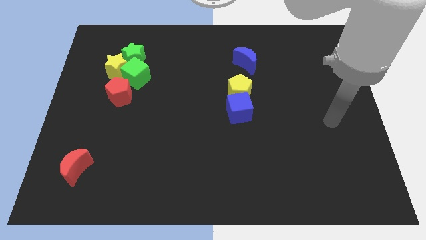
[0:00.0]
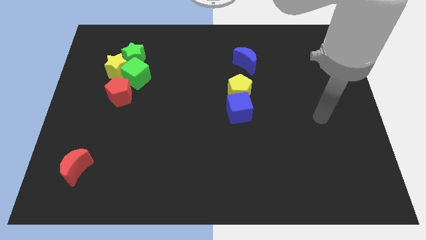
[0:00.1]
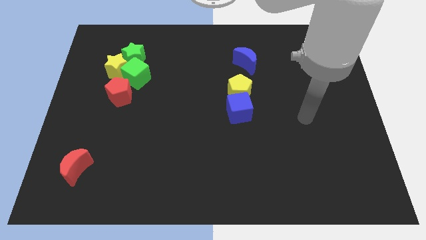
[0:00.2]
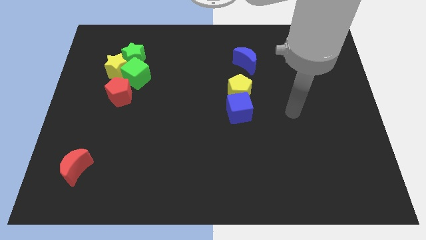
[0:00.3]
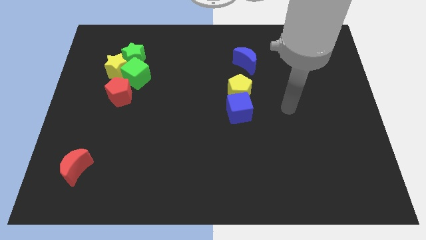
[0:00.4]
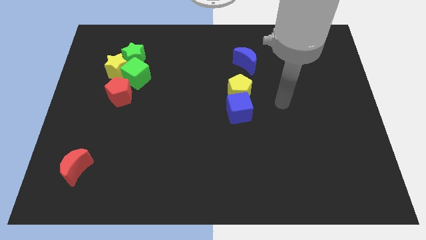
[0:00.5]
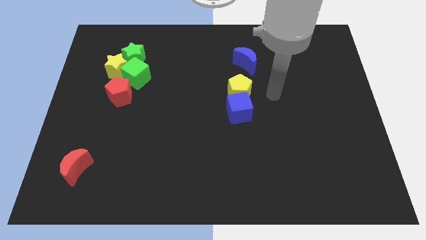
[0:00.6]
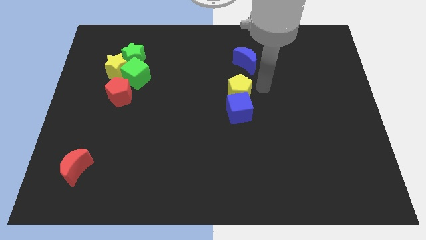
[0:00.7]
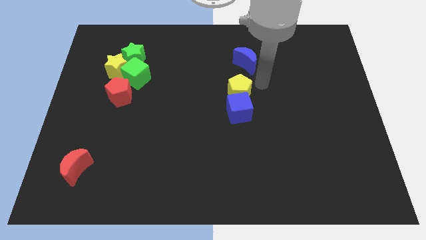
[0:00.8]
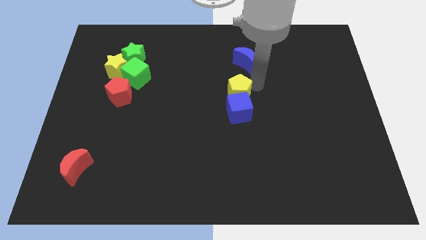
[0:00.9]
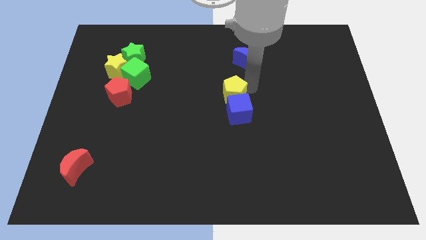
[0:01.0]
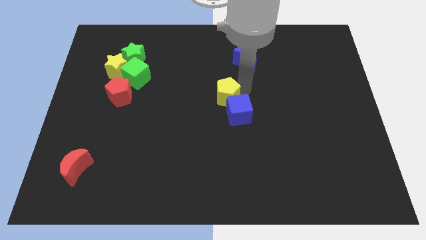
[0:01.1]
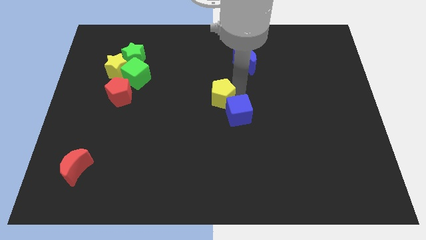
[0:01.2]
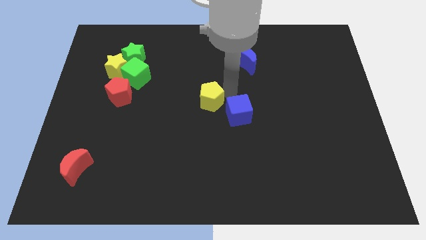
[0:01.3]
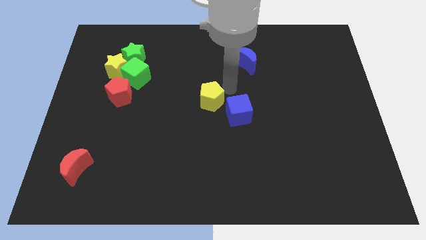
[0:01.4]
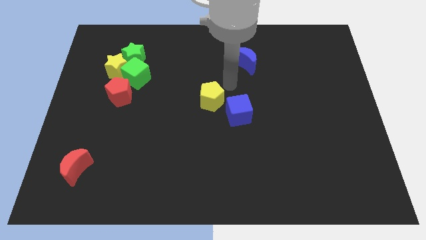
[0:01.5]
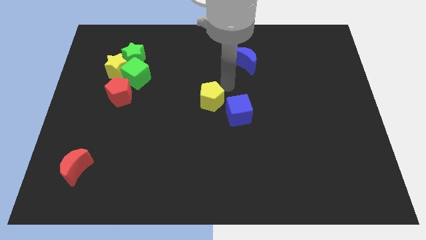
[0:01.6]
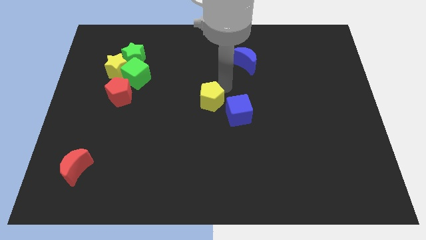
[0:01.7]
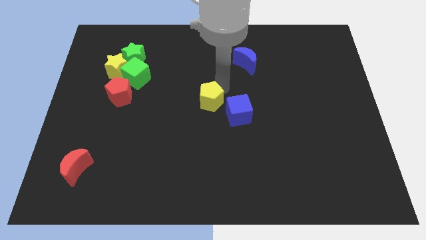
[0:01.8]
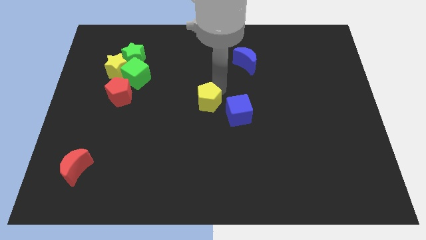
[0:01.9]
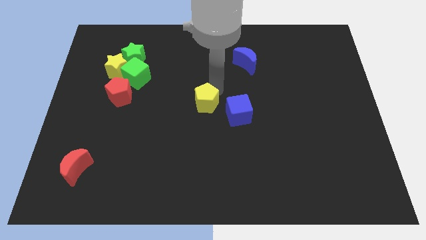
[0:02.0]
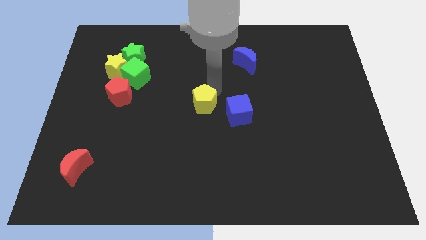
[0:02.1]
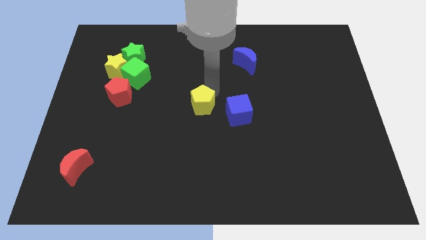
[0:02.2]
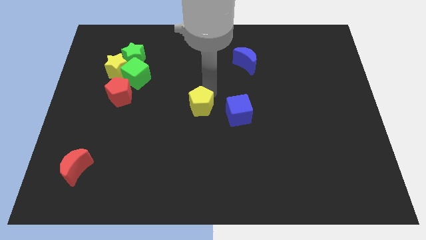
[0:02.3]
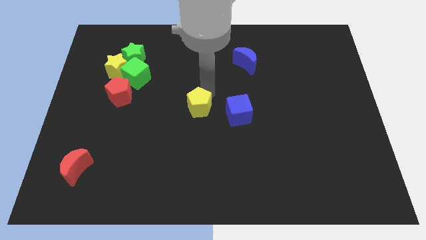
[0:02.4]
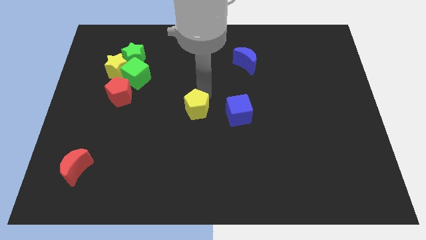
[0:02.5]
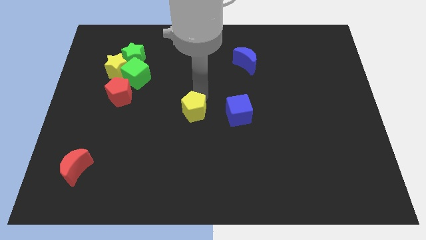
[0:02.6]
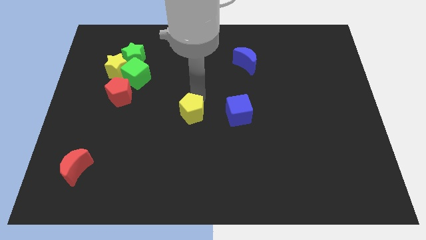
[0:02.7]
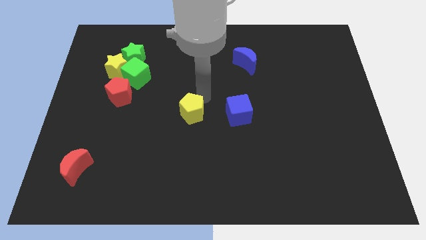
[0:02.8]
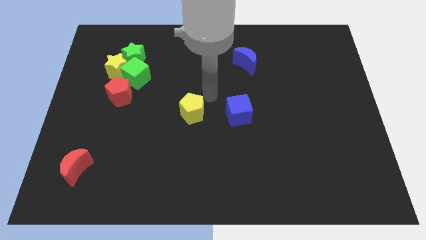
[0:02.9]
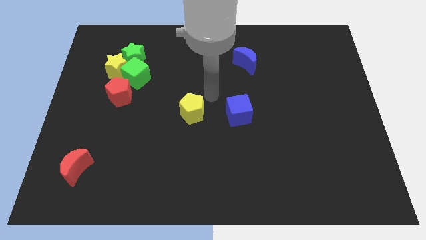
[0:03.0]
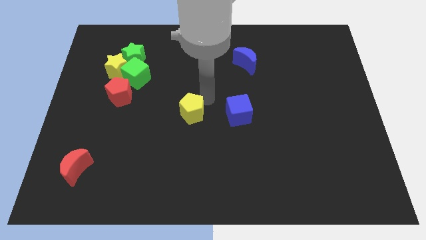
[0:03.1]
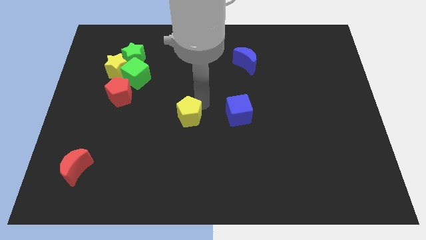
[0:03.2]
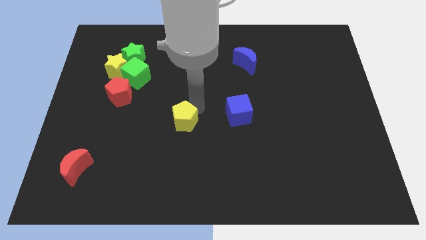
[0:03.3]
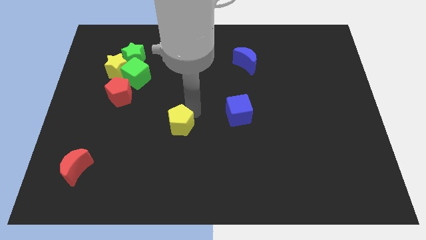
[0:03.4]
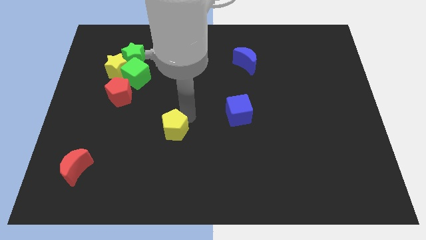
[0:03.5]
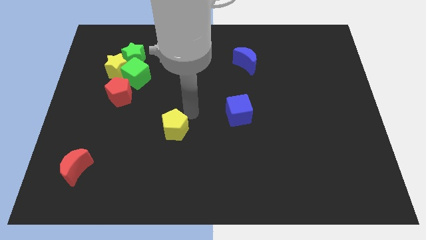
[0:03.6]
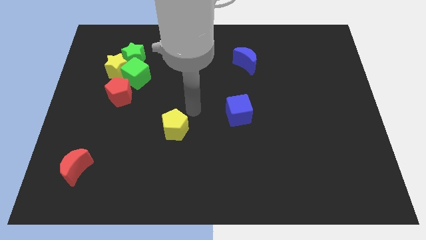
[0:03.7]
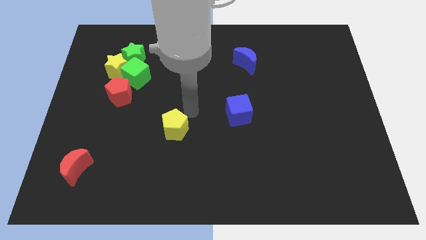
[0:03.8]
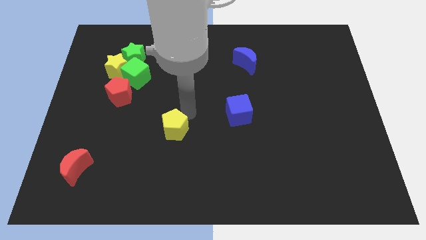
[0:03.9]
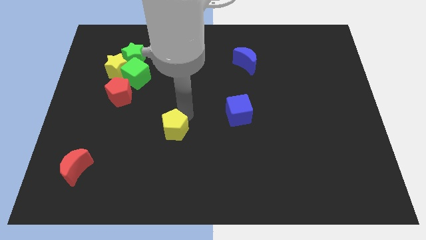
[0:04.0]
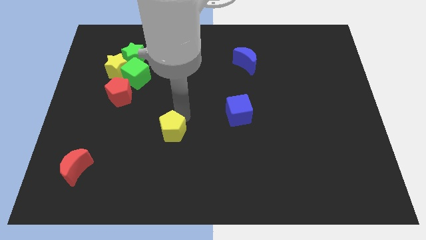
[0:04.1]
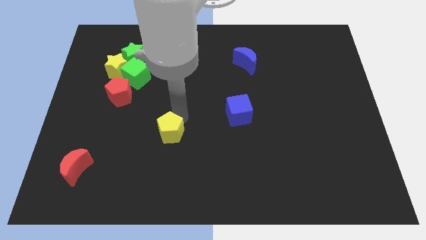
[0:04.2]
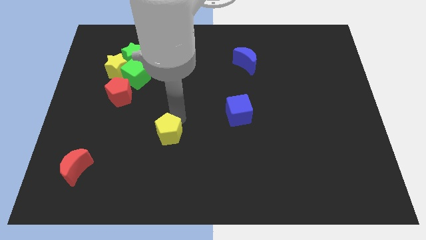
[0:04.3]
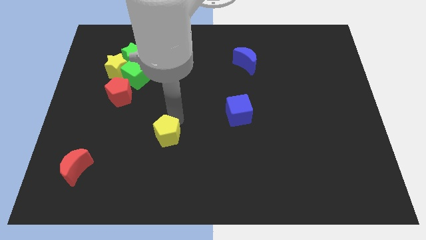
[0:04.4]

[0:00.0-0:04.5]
push the yellow pentagon downwards and left diagonally

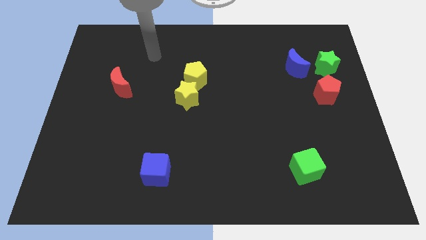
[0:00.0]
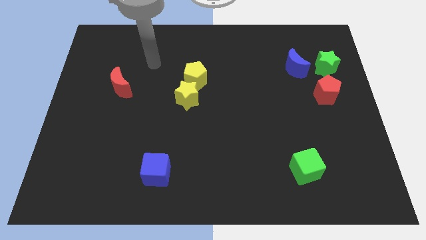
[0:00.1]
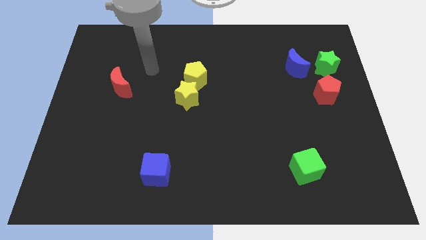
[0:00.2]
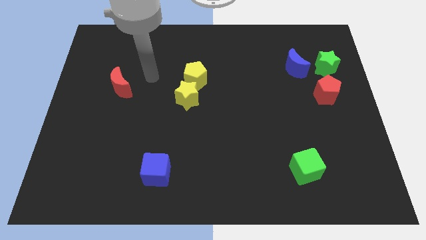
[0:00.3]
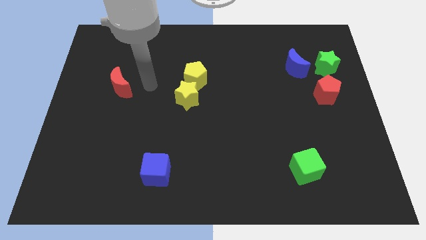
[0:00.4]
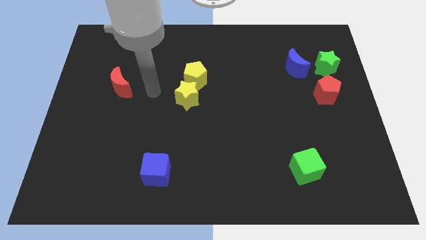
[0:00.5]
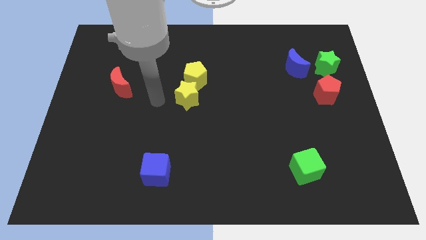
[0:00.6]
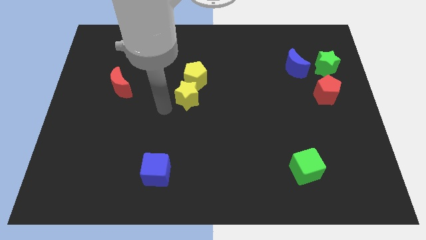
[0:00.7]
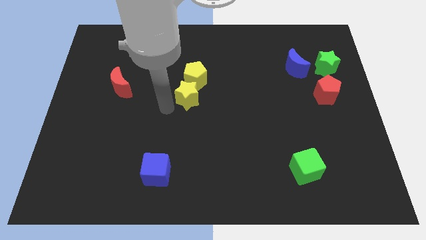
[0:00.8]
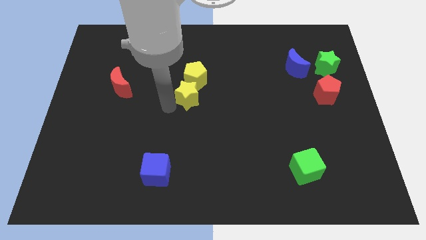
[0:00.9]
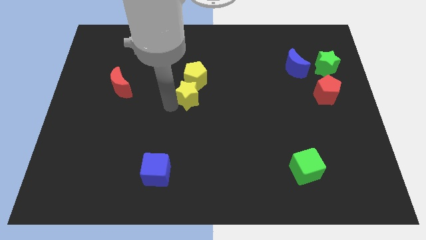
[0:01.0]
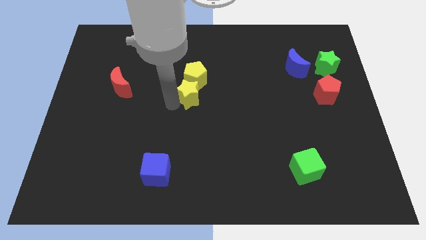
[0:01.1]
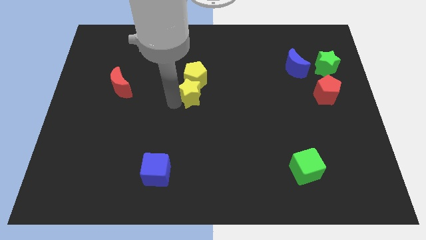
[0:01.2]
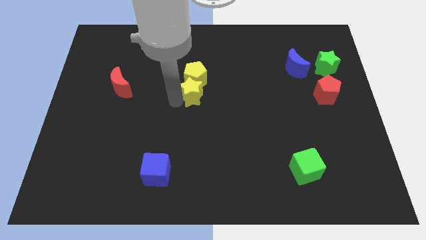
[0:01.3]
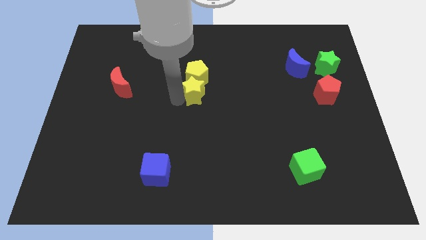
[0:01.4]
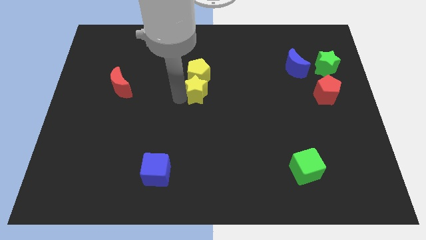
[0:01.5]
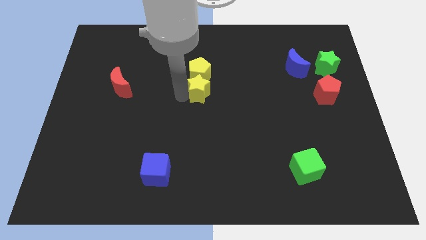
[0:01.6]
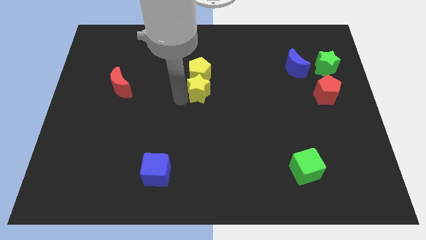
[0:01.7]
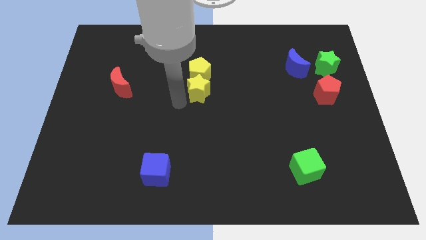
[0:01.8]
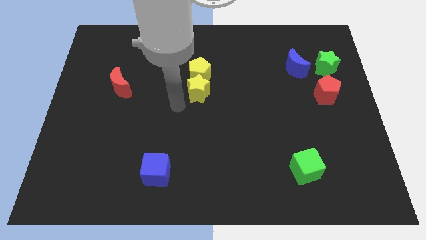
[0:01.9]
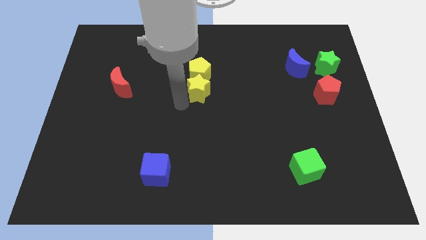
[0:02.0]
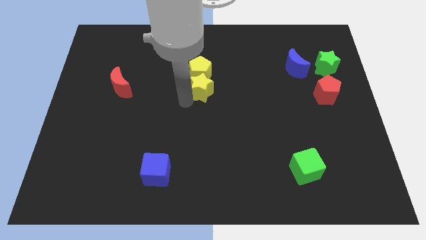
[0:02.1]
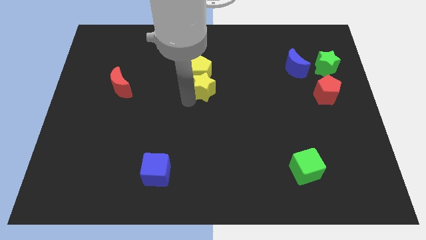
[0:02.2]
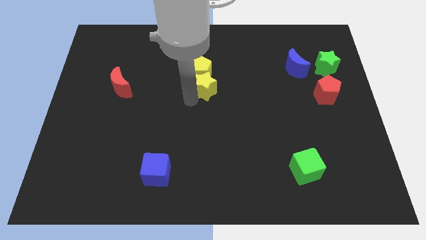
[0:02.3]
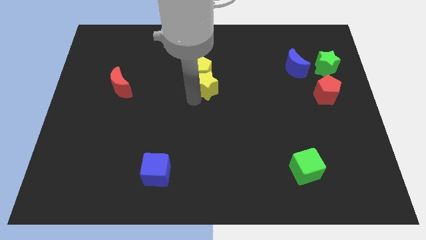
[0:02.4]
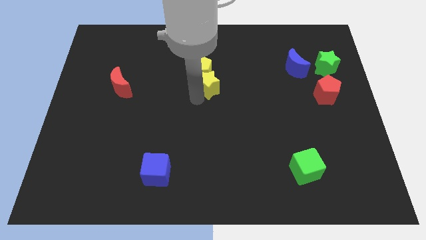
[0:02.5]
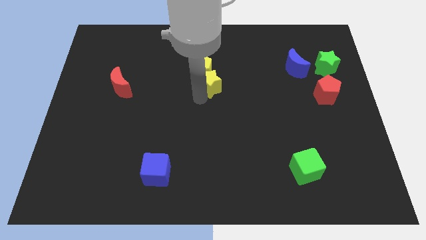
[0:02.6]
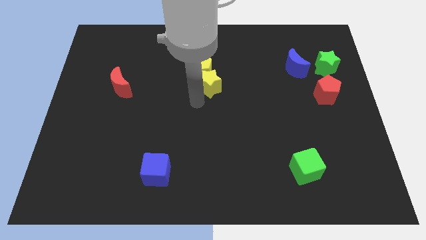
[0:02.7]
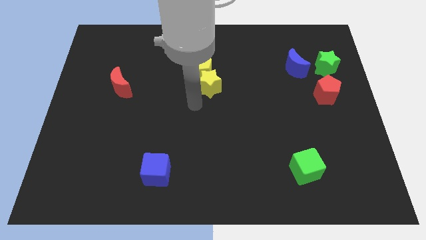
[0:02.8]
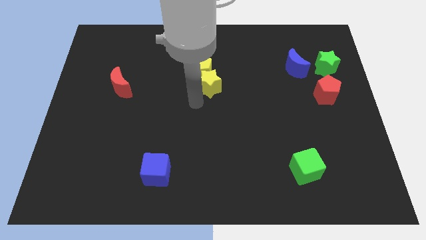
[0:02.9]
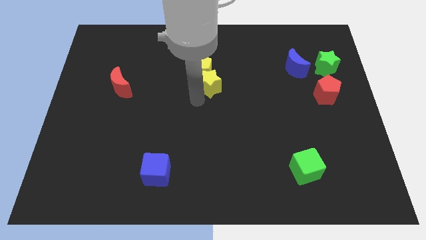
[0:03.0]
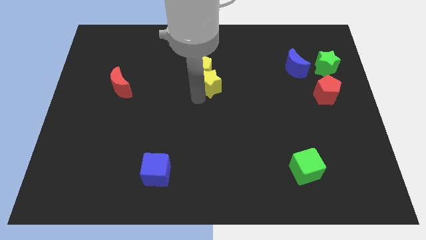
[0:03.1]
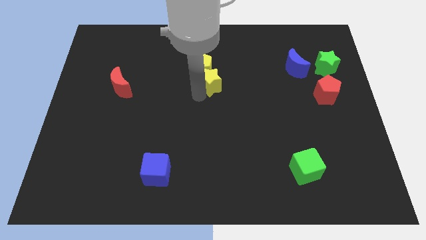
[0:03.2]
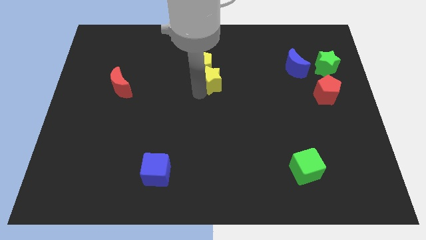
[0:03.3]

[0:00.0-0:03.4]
push the yellow star a little upwards and to the right diagonally

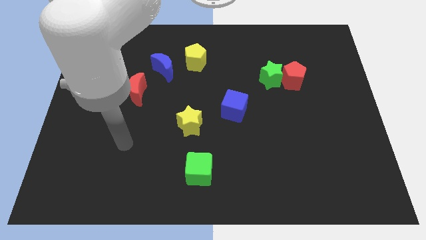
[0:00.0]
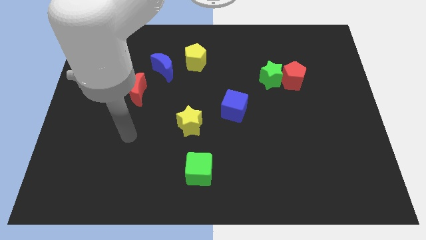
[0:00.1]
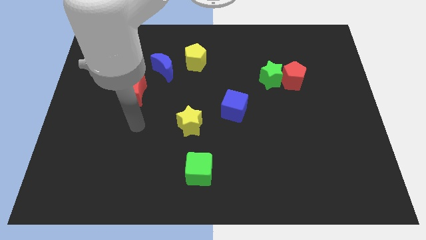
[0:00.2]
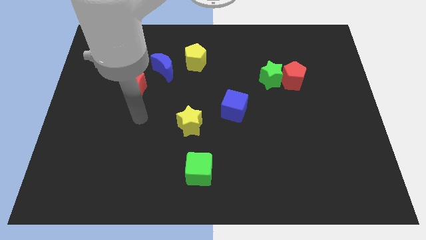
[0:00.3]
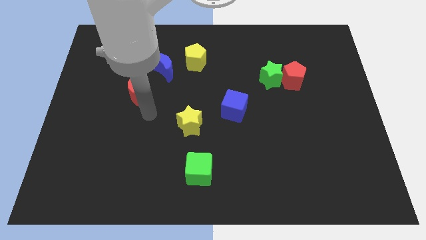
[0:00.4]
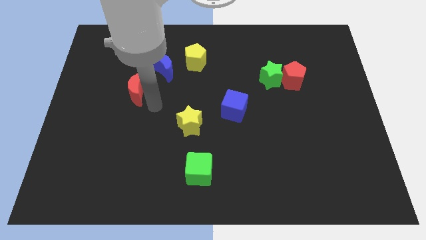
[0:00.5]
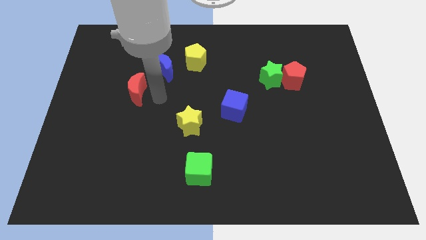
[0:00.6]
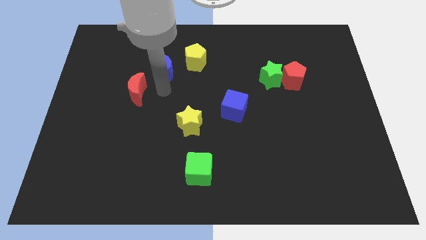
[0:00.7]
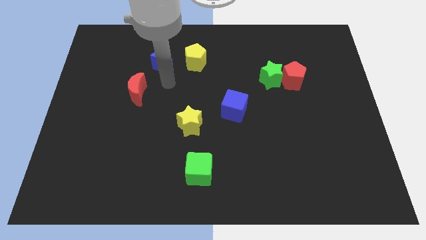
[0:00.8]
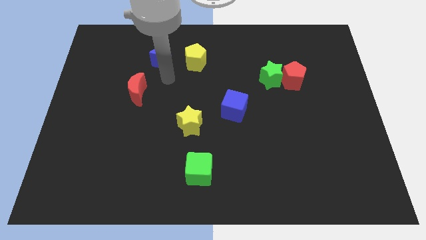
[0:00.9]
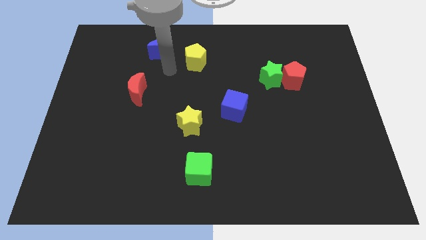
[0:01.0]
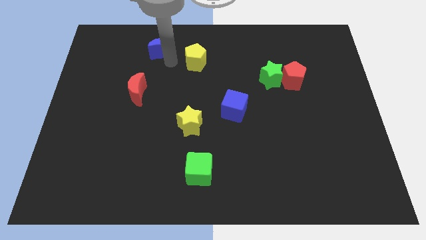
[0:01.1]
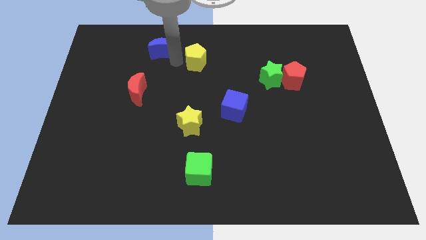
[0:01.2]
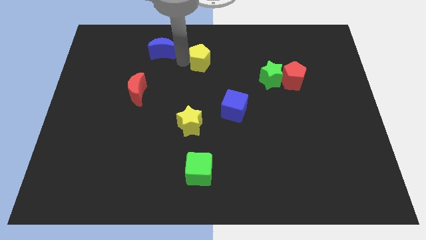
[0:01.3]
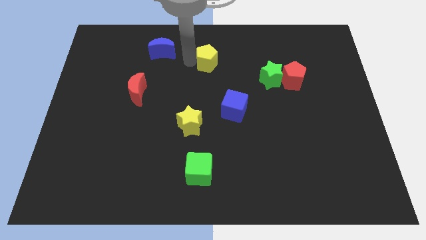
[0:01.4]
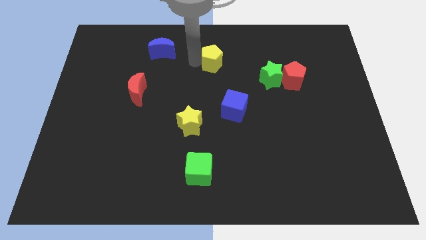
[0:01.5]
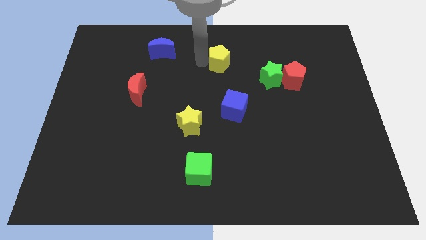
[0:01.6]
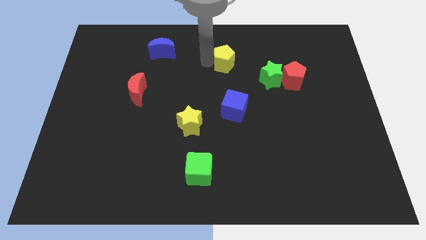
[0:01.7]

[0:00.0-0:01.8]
slightly move the yellow pentagon right
